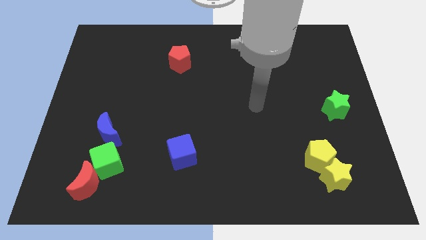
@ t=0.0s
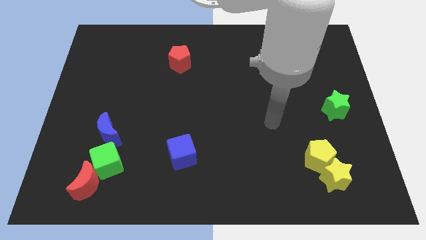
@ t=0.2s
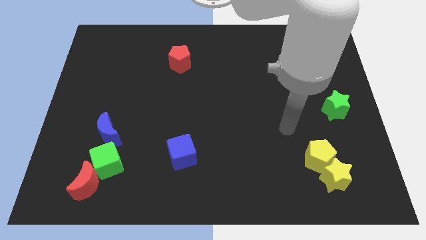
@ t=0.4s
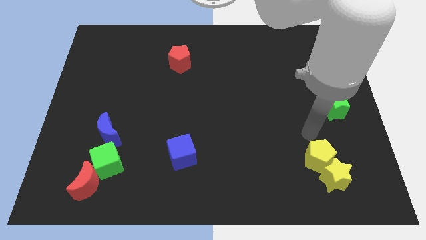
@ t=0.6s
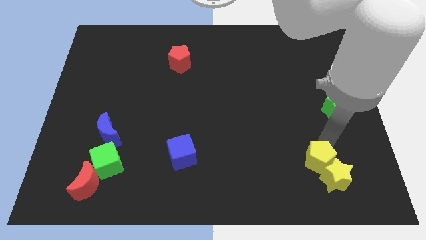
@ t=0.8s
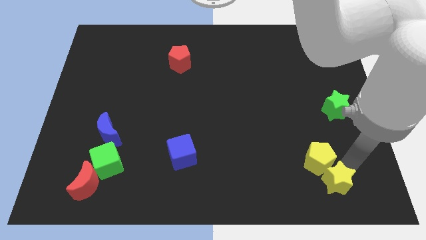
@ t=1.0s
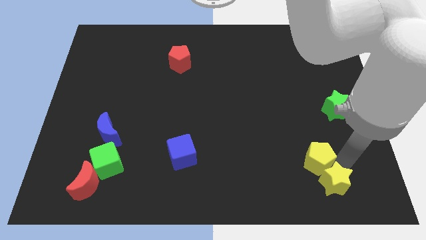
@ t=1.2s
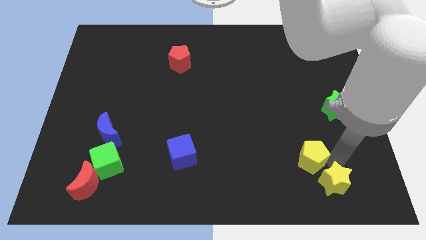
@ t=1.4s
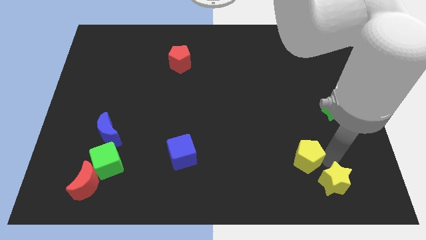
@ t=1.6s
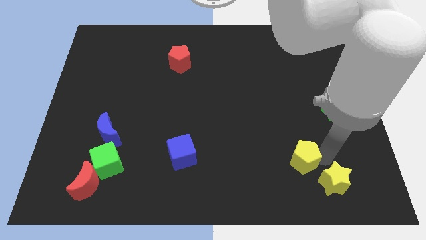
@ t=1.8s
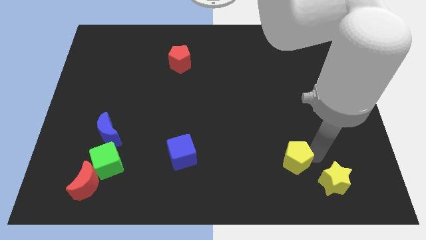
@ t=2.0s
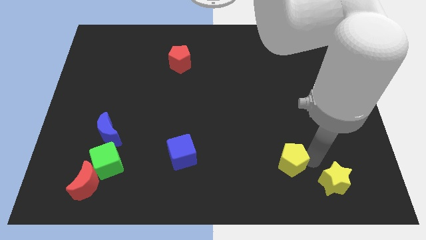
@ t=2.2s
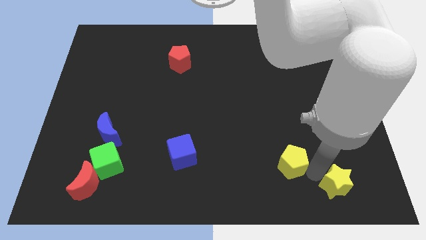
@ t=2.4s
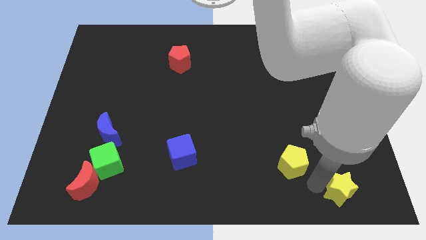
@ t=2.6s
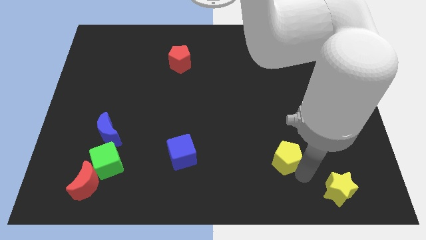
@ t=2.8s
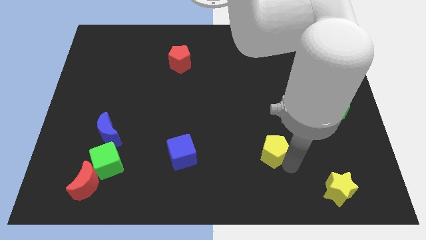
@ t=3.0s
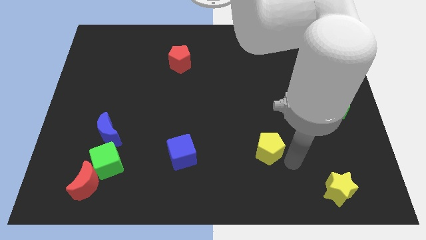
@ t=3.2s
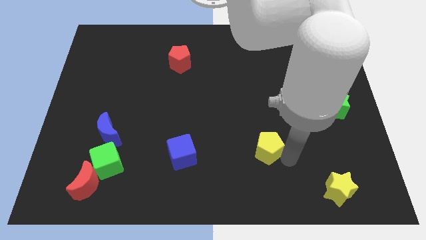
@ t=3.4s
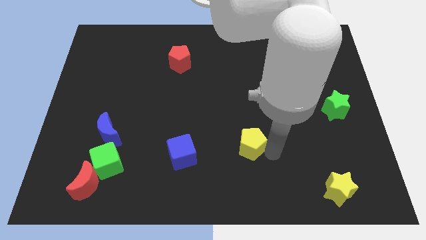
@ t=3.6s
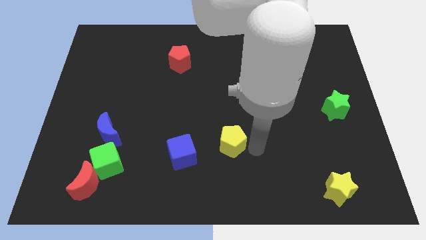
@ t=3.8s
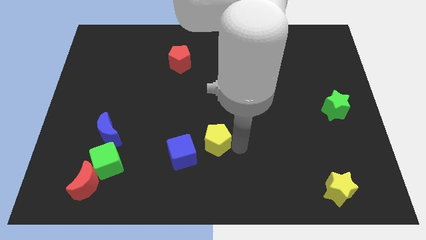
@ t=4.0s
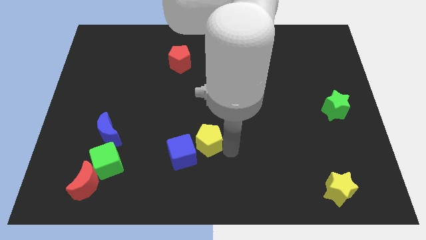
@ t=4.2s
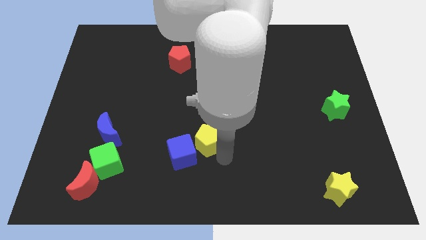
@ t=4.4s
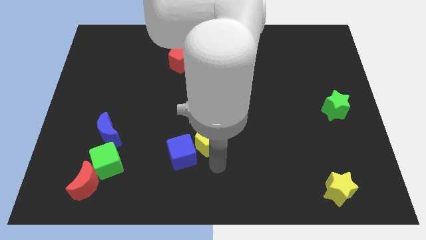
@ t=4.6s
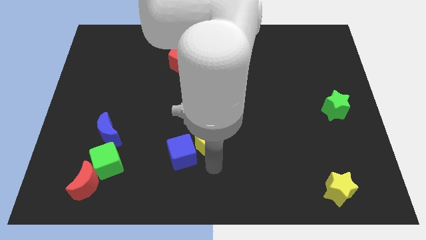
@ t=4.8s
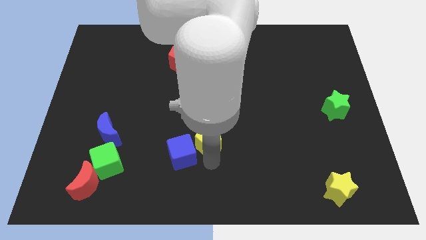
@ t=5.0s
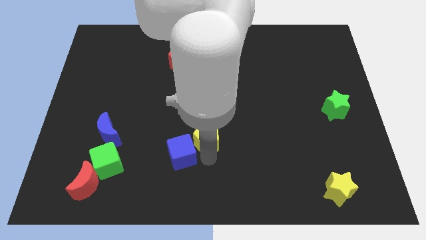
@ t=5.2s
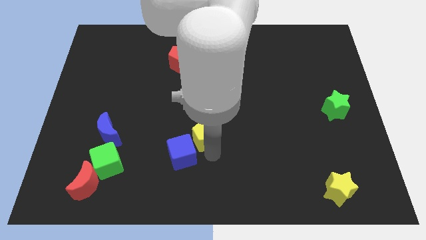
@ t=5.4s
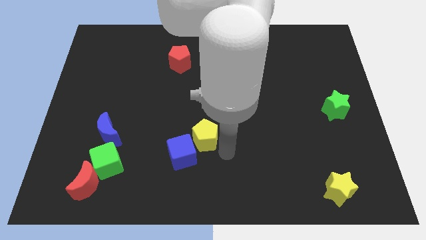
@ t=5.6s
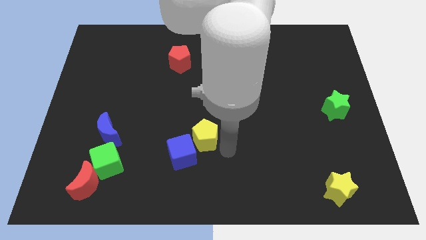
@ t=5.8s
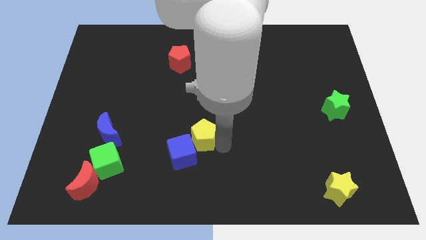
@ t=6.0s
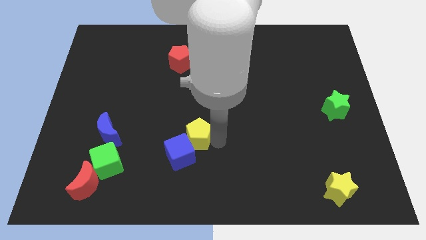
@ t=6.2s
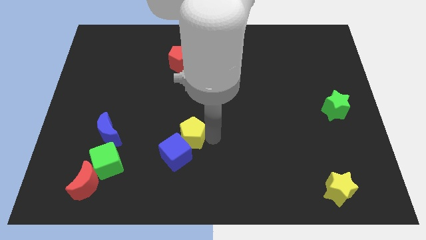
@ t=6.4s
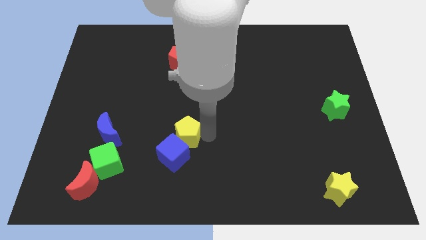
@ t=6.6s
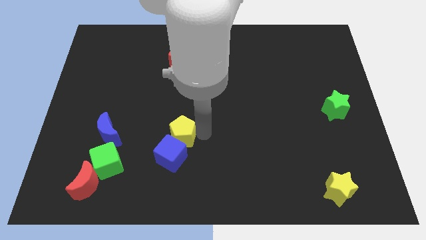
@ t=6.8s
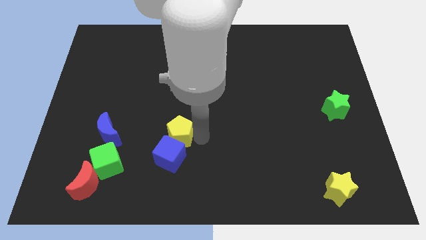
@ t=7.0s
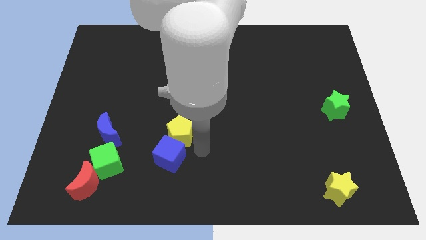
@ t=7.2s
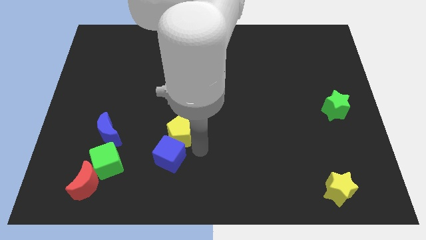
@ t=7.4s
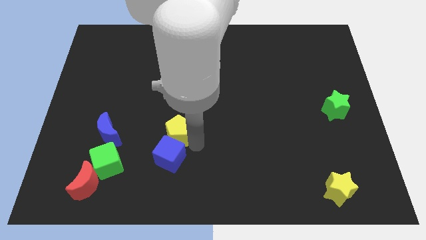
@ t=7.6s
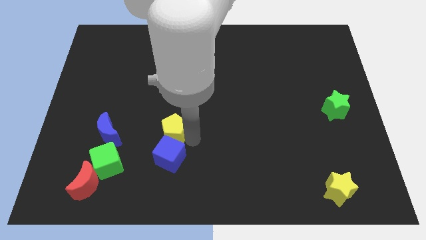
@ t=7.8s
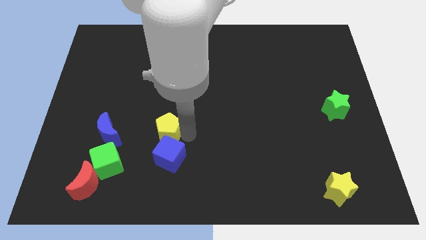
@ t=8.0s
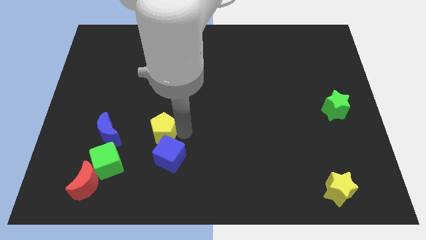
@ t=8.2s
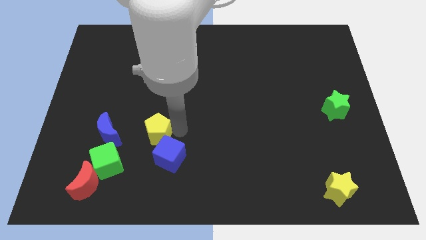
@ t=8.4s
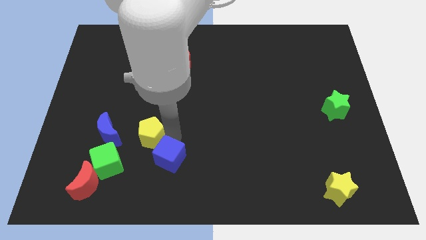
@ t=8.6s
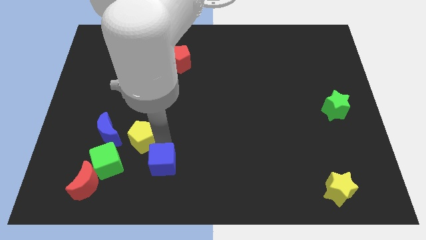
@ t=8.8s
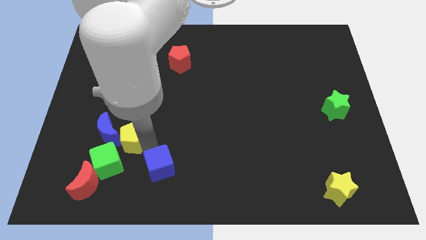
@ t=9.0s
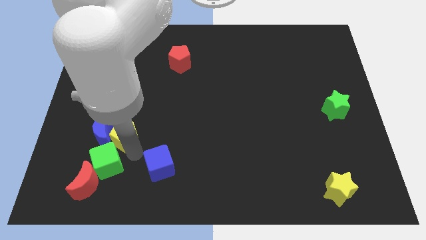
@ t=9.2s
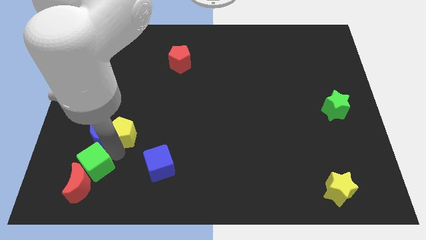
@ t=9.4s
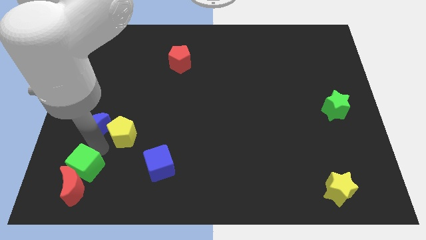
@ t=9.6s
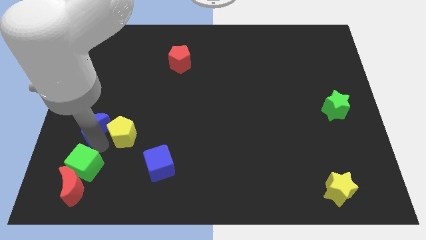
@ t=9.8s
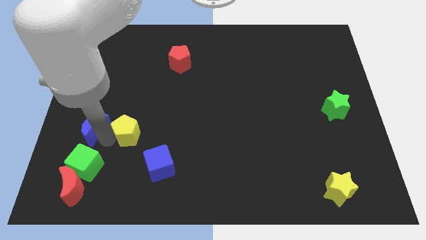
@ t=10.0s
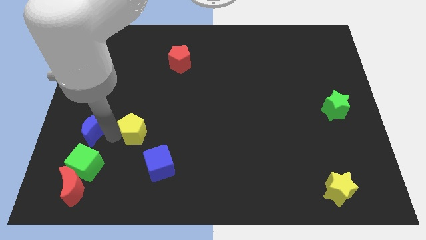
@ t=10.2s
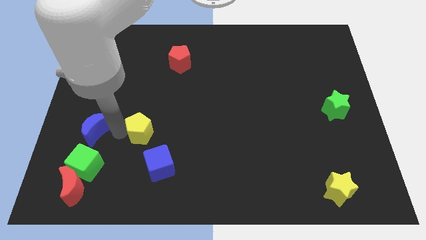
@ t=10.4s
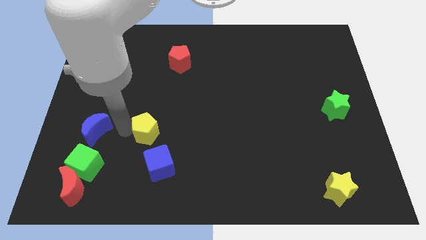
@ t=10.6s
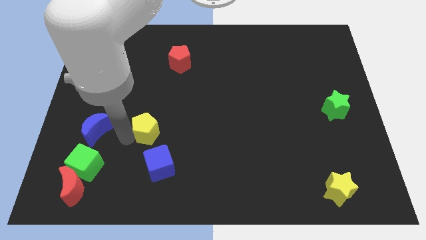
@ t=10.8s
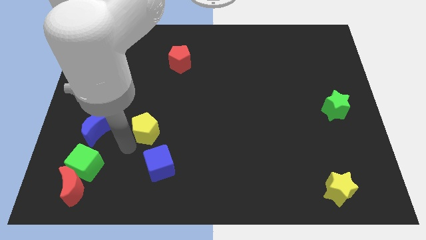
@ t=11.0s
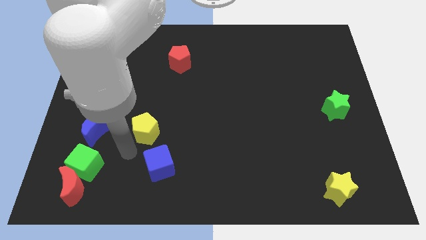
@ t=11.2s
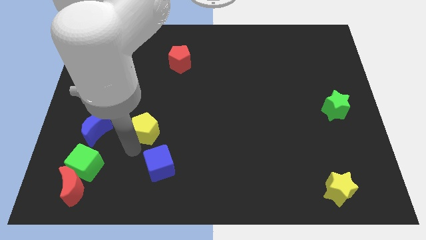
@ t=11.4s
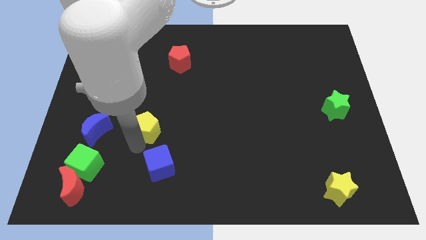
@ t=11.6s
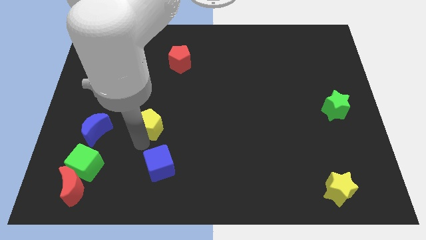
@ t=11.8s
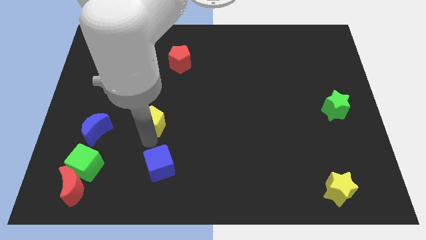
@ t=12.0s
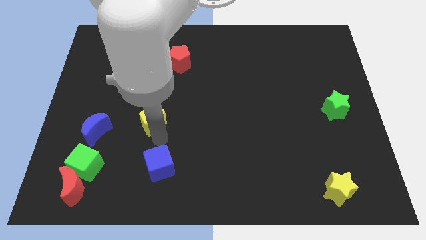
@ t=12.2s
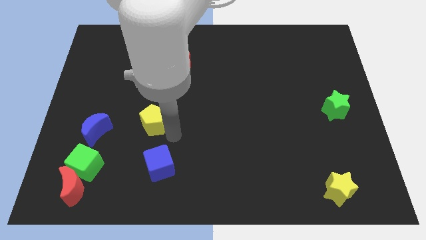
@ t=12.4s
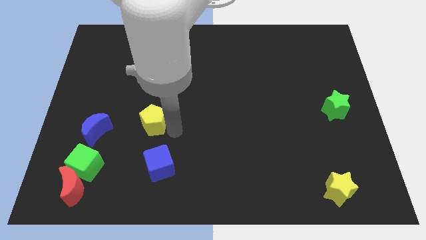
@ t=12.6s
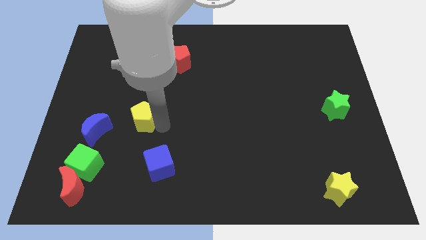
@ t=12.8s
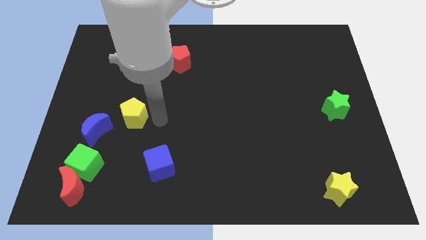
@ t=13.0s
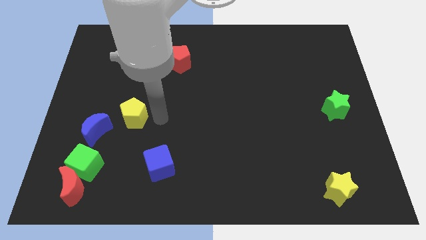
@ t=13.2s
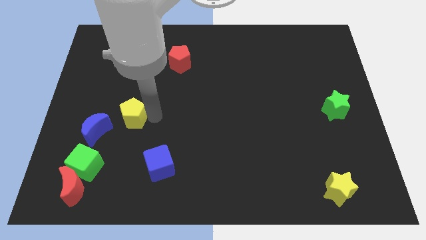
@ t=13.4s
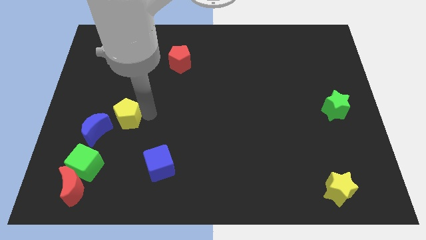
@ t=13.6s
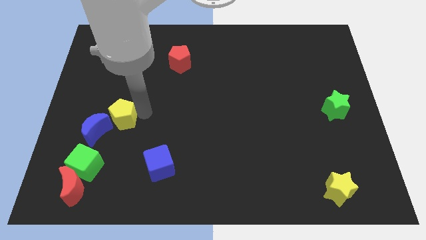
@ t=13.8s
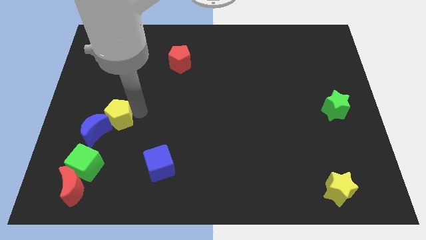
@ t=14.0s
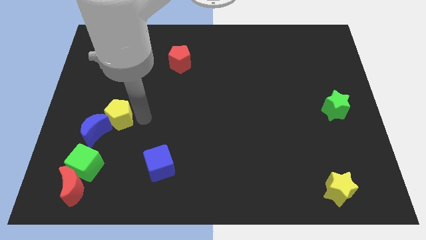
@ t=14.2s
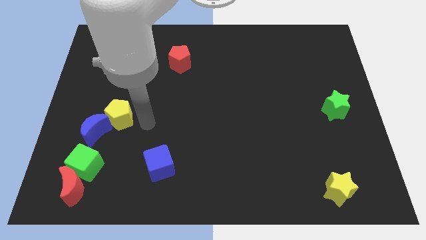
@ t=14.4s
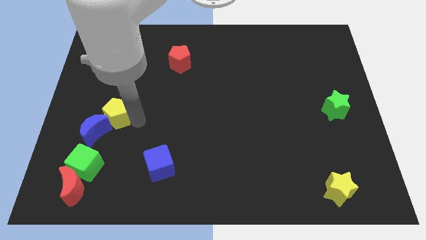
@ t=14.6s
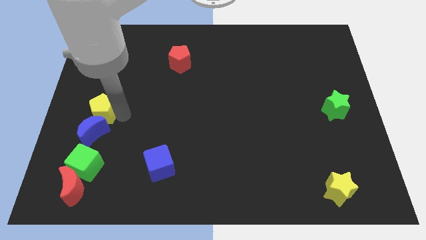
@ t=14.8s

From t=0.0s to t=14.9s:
move the yellow pentagon to the left side
